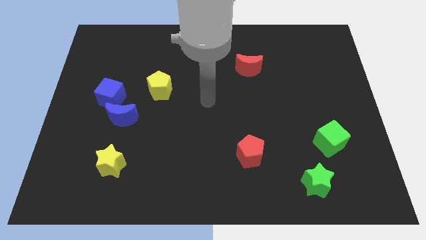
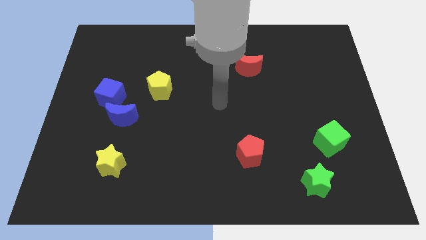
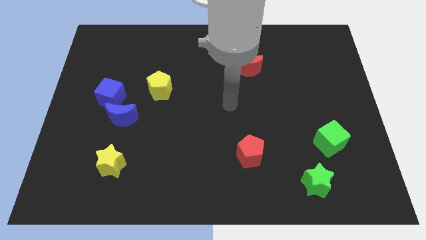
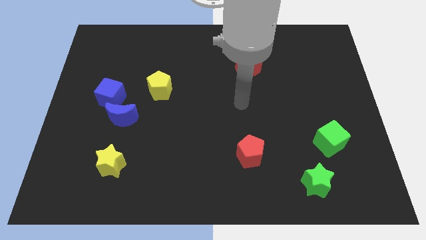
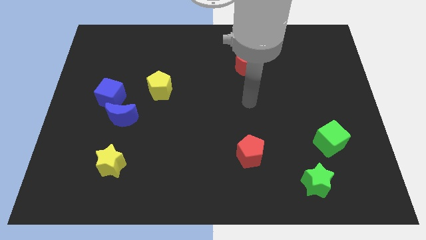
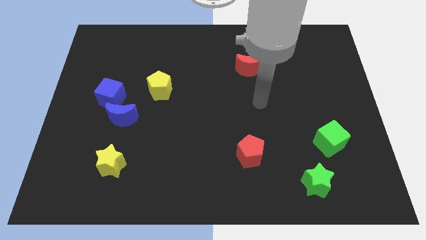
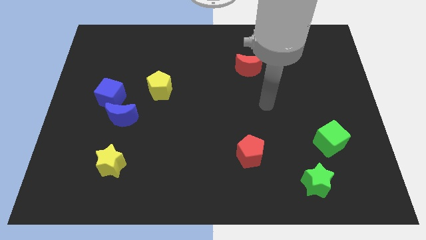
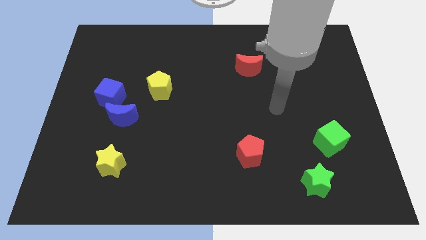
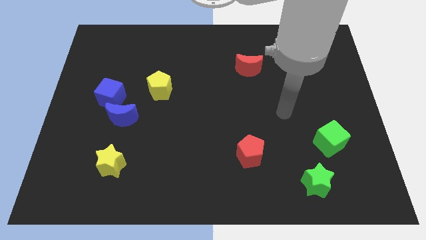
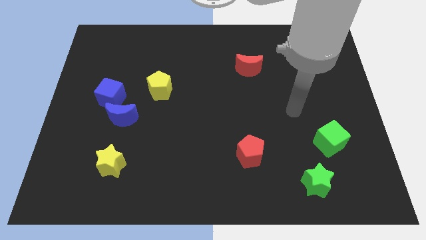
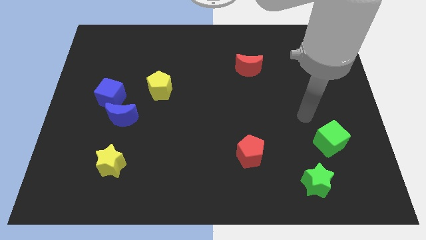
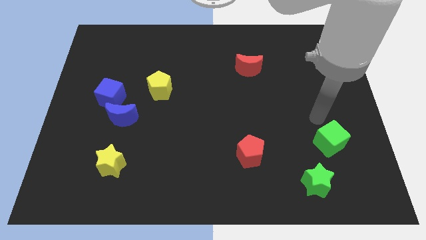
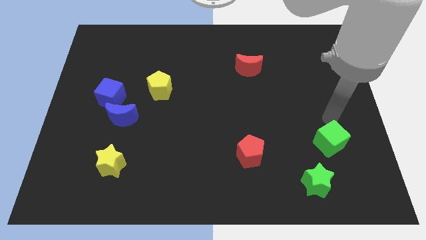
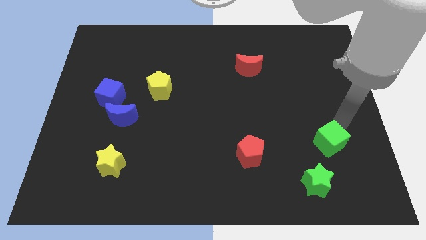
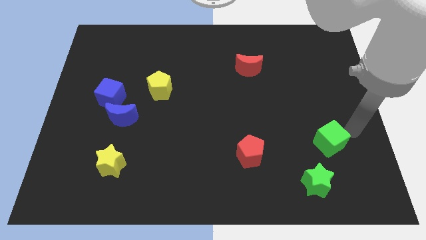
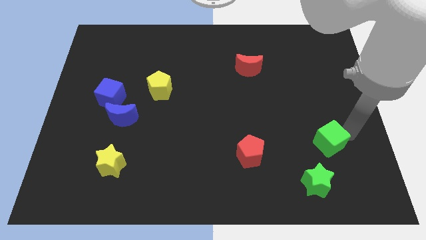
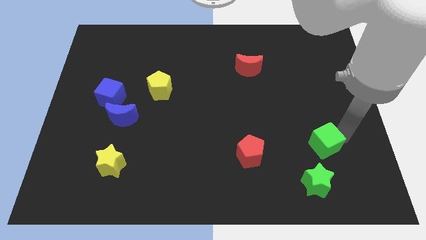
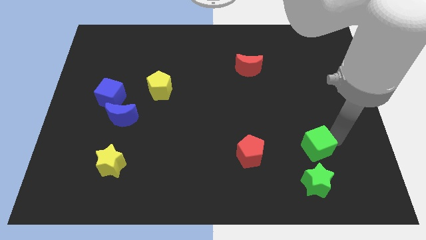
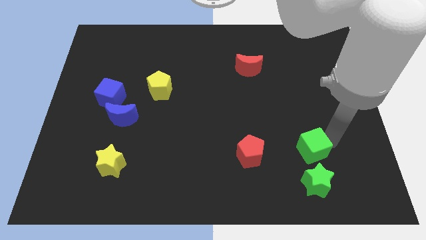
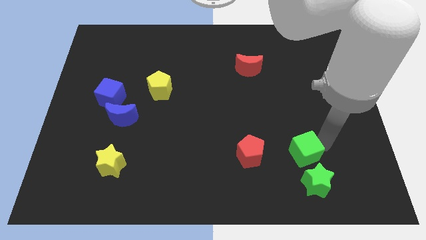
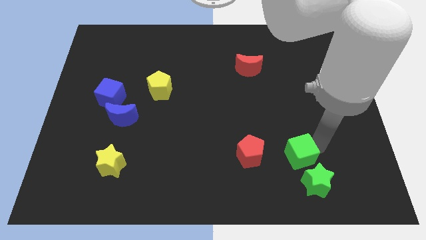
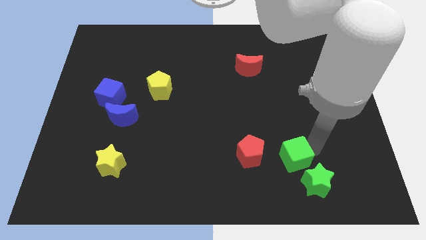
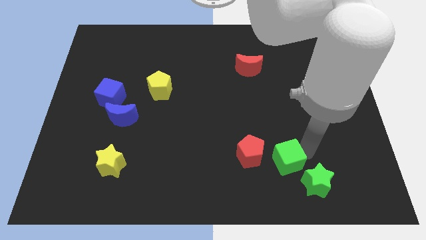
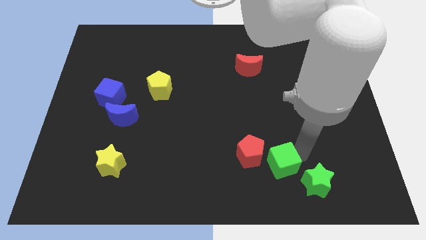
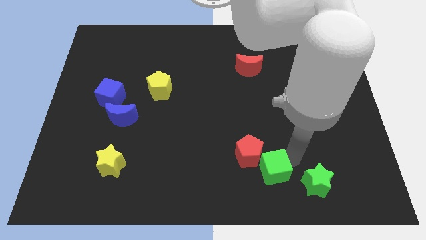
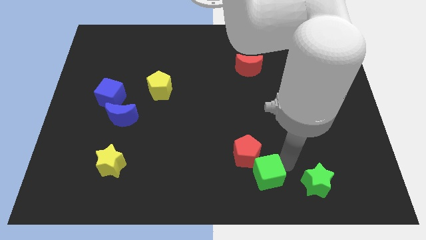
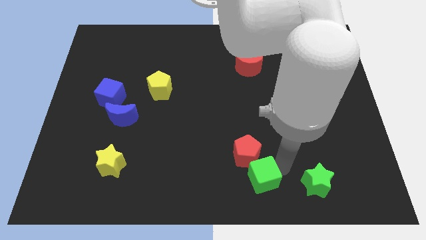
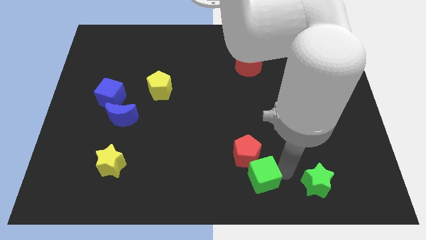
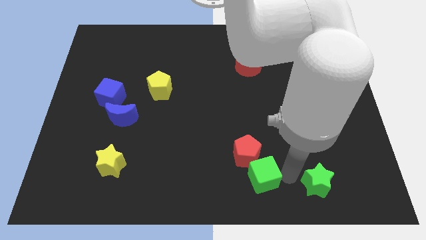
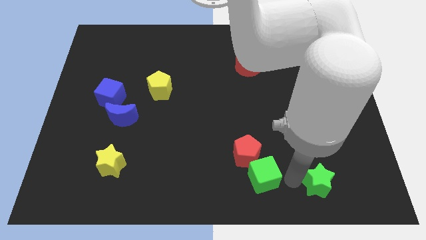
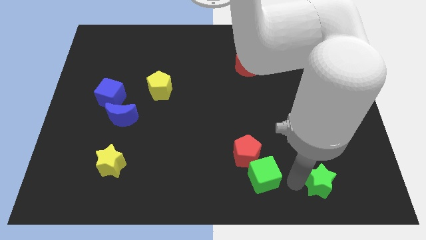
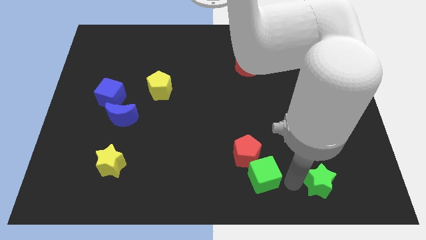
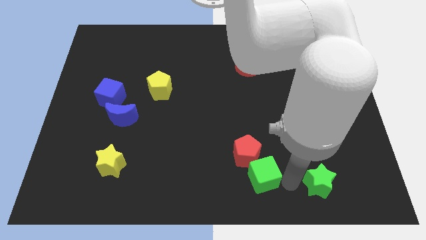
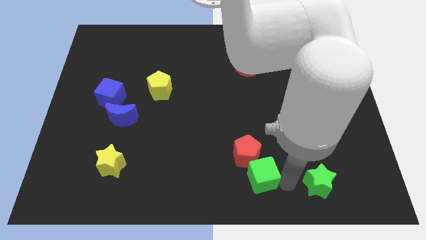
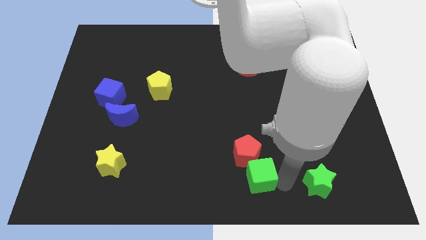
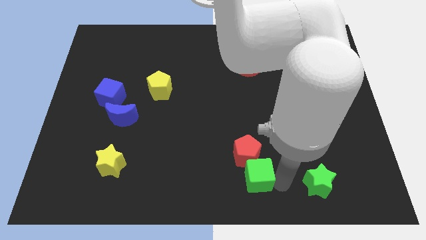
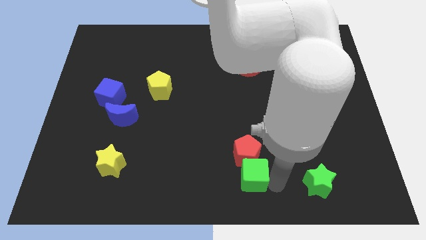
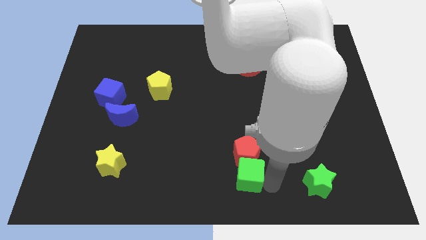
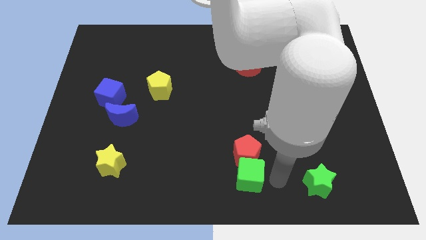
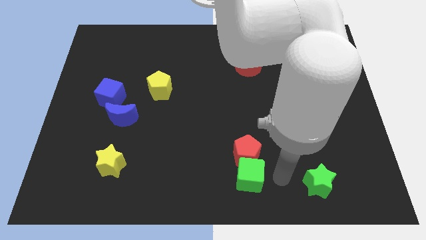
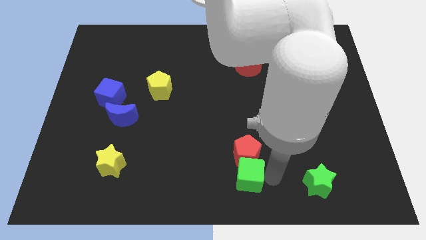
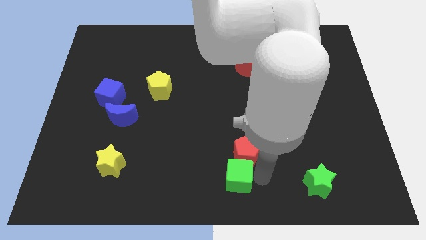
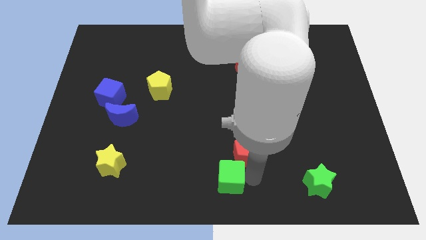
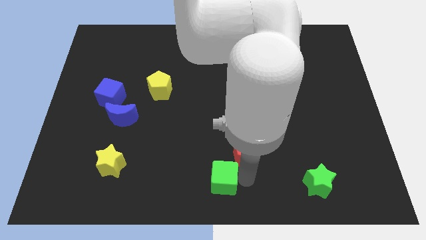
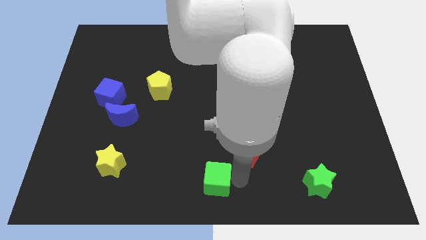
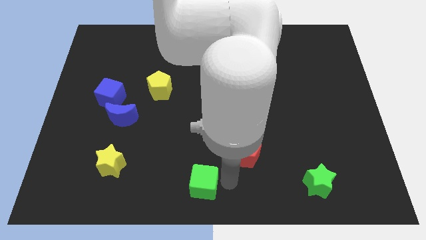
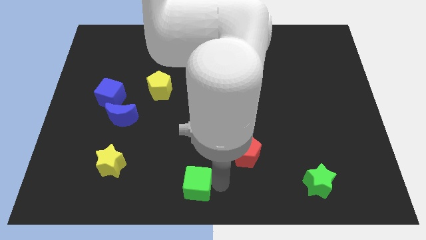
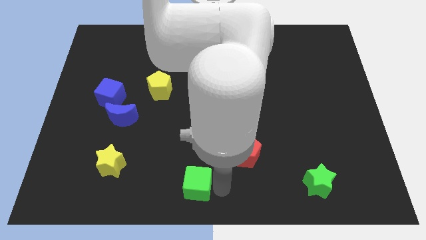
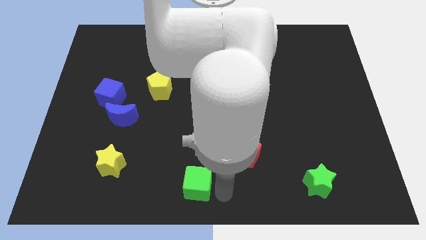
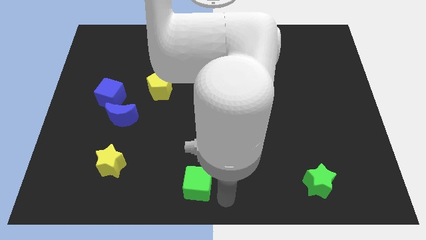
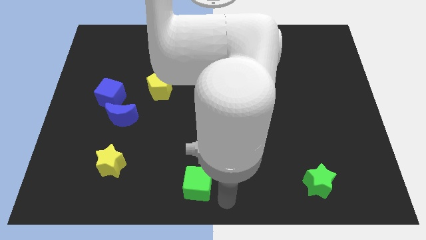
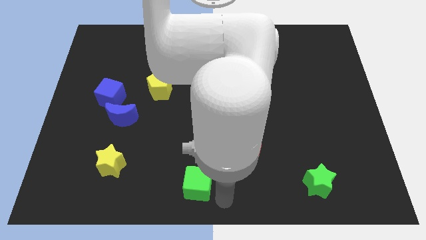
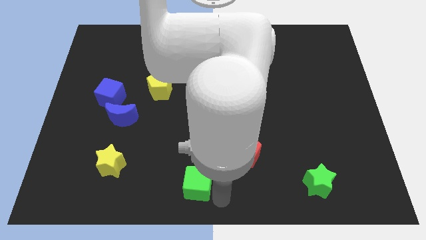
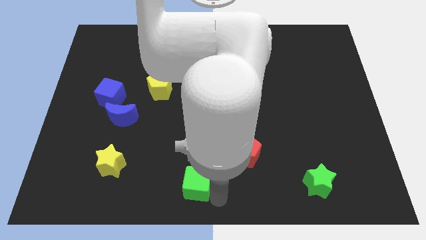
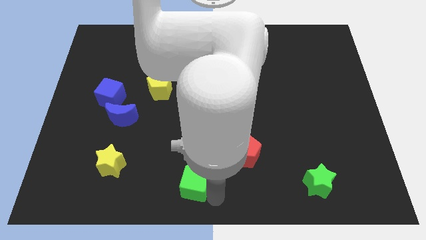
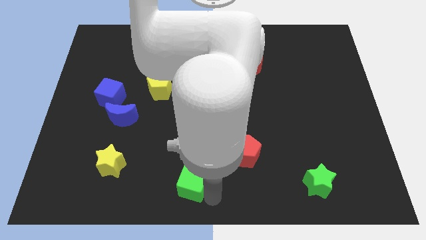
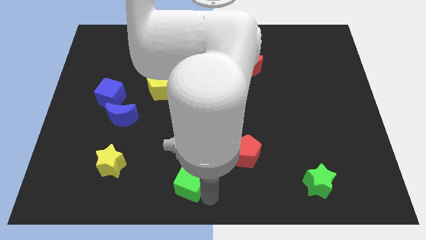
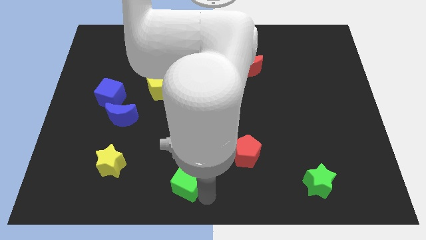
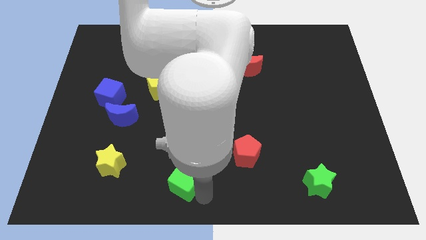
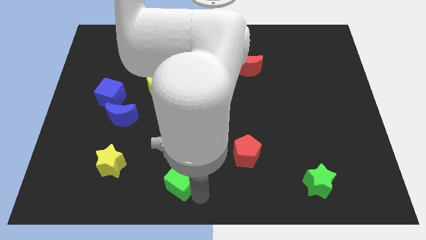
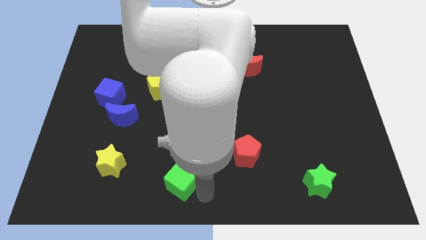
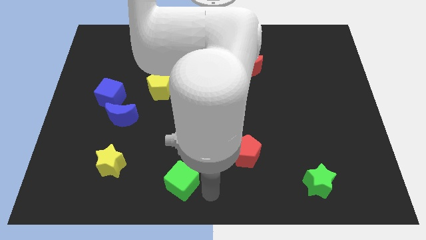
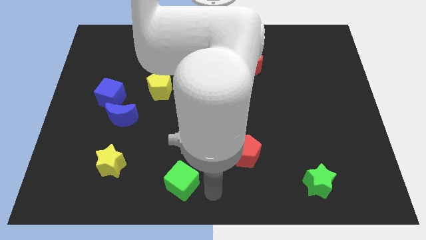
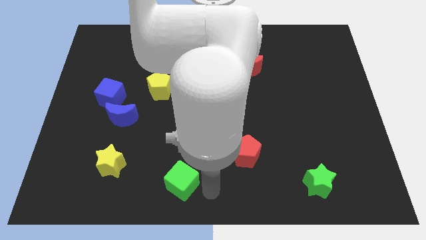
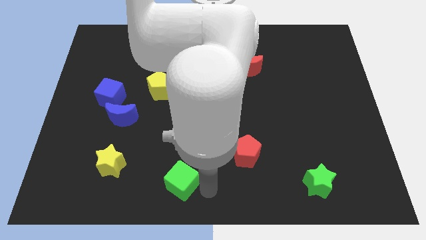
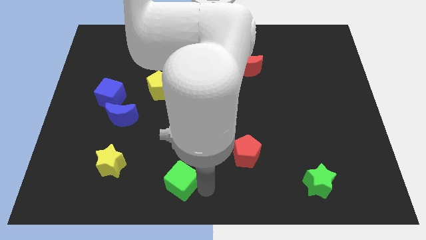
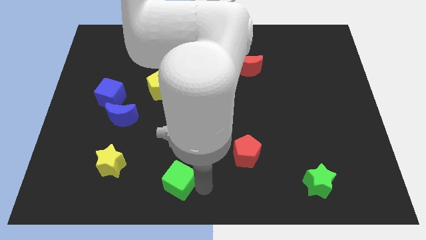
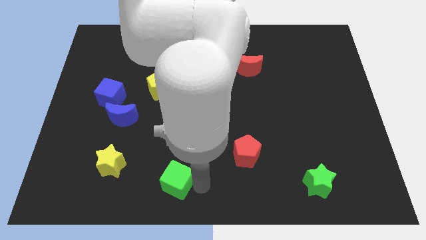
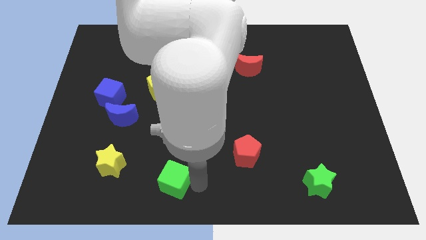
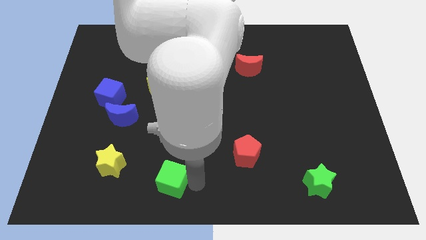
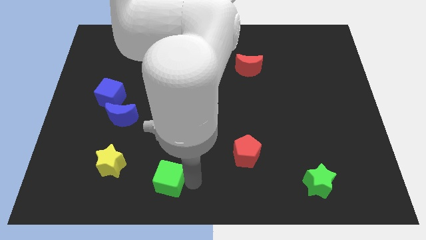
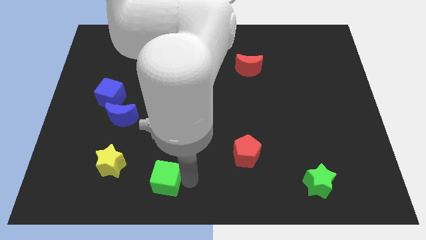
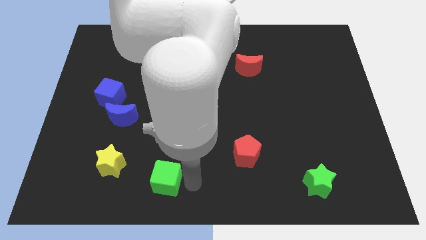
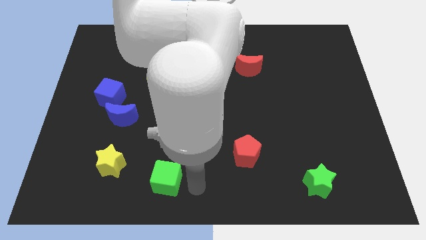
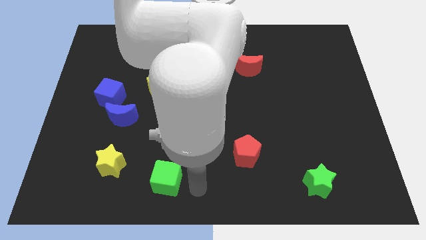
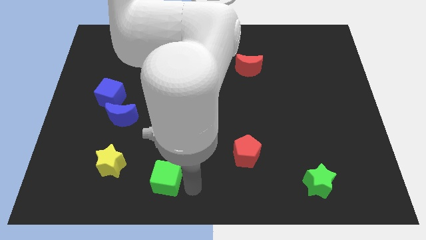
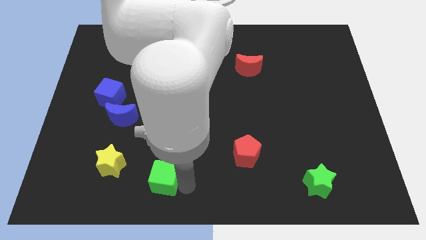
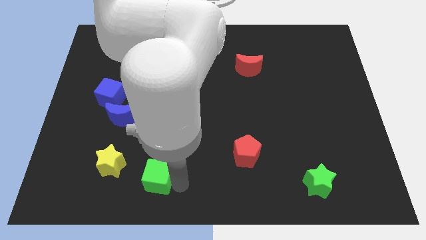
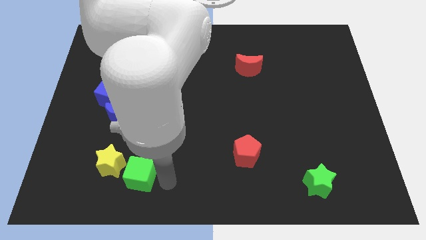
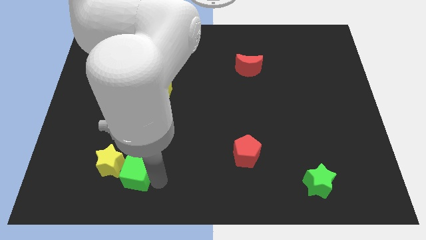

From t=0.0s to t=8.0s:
push the green cube to the yellow star
